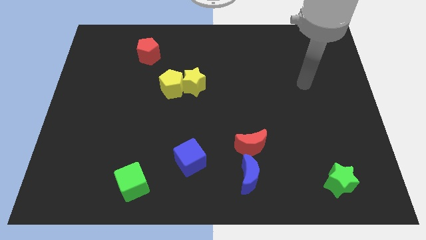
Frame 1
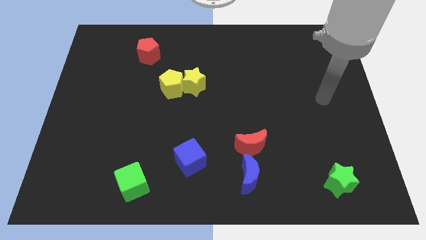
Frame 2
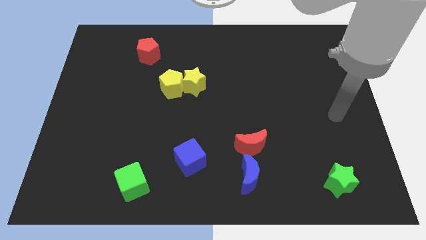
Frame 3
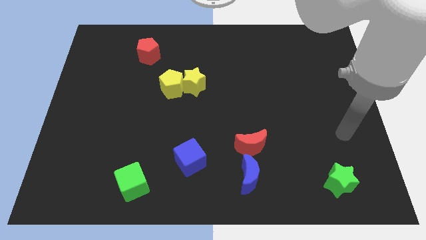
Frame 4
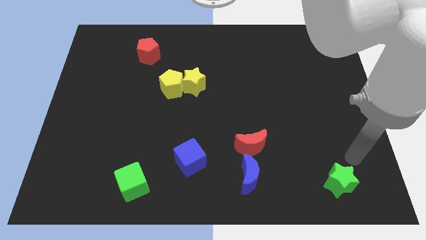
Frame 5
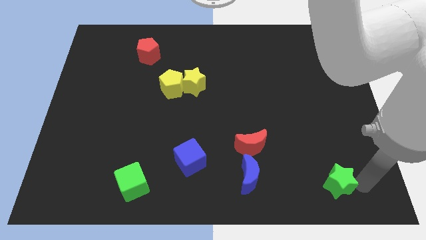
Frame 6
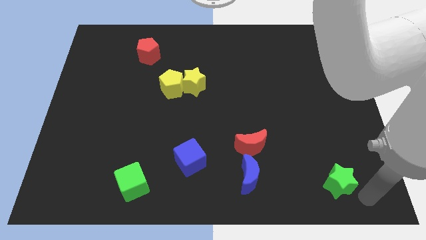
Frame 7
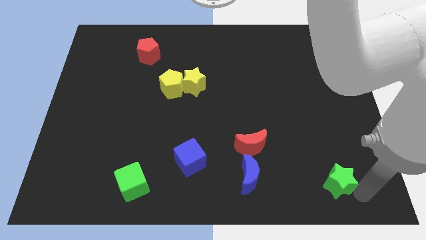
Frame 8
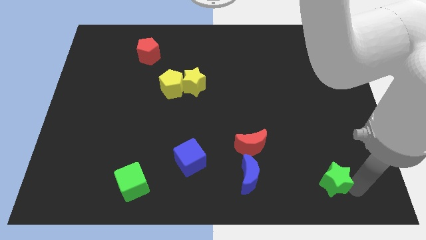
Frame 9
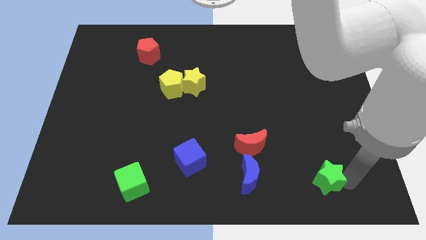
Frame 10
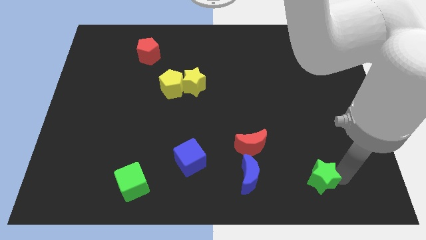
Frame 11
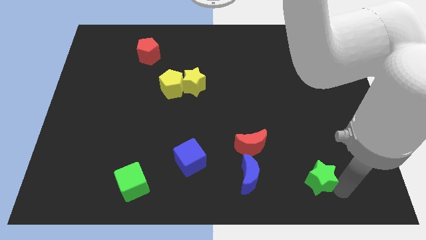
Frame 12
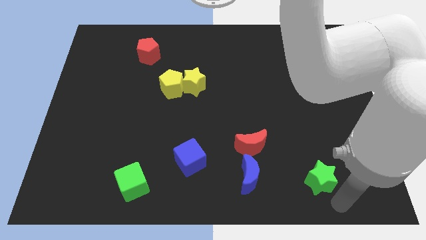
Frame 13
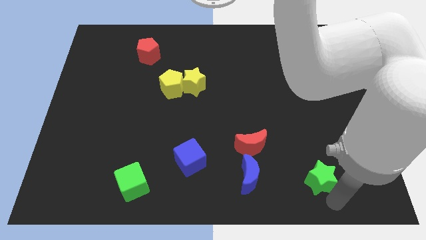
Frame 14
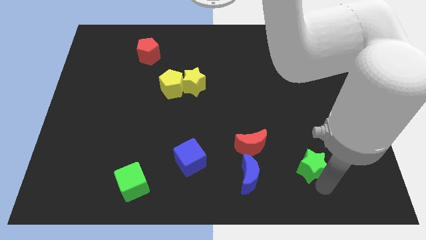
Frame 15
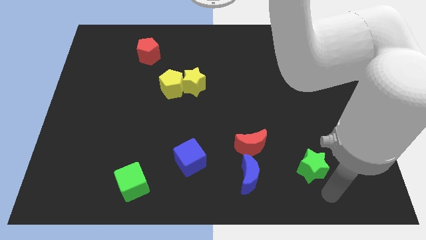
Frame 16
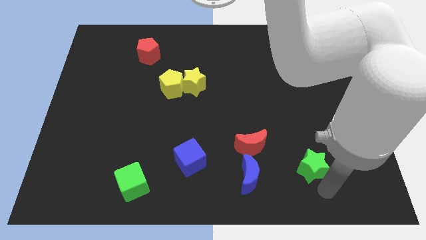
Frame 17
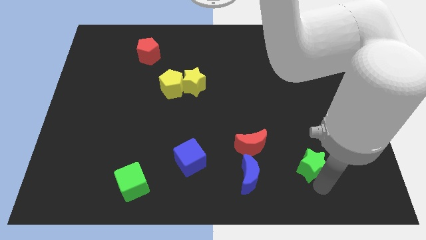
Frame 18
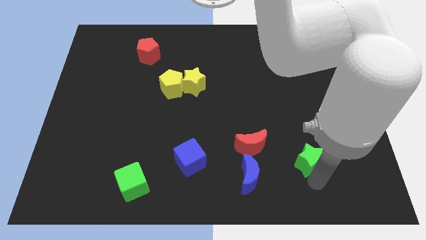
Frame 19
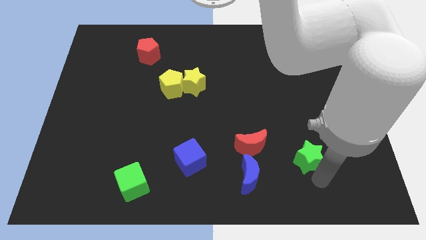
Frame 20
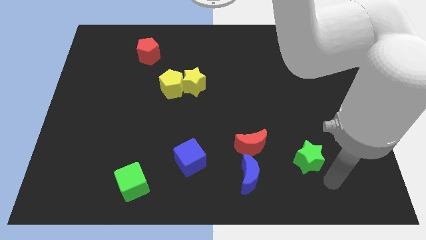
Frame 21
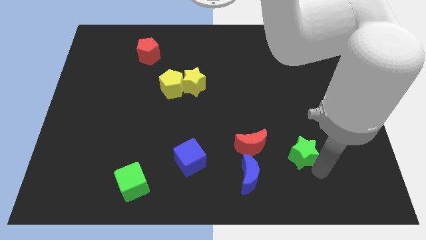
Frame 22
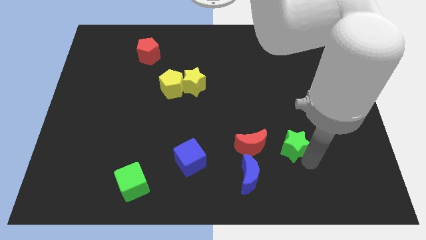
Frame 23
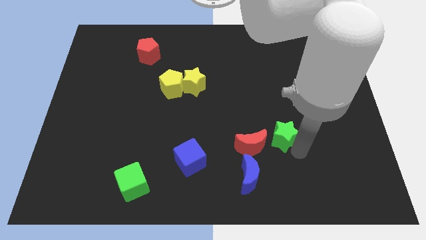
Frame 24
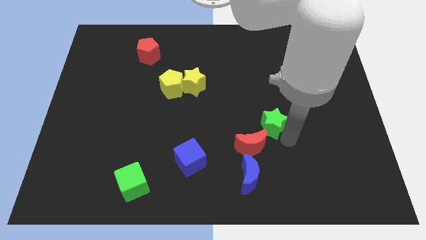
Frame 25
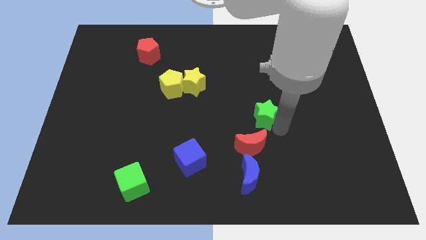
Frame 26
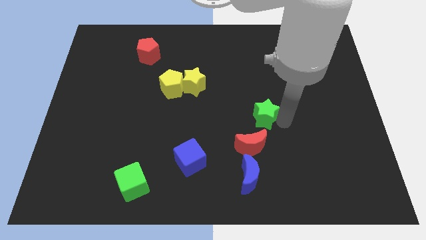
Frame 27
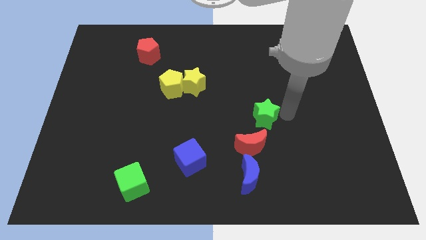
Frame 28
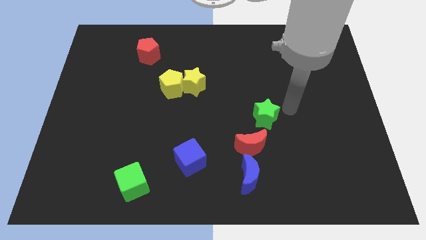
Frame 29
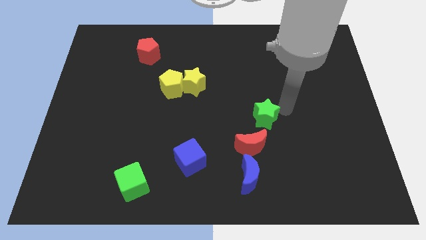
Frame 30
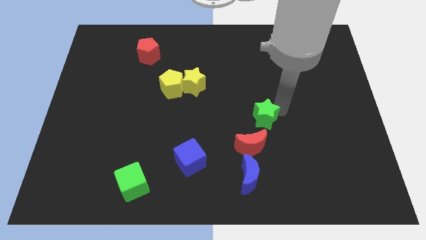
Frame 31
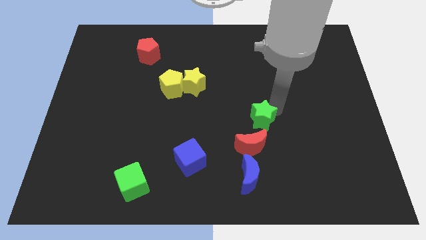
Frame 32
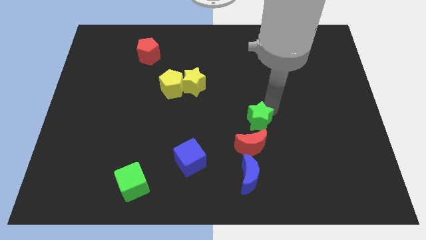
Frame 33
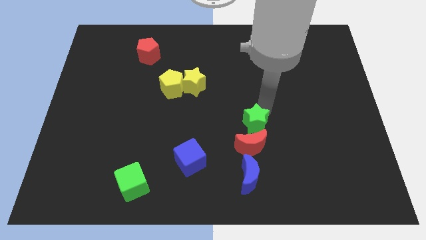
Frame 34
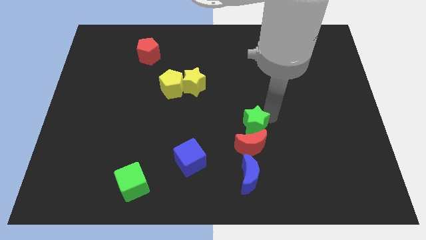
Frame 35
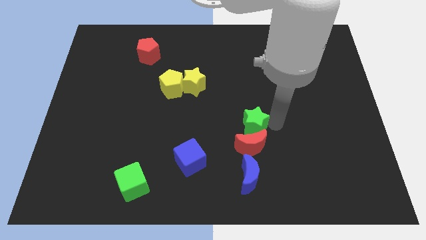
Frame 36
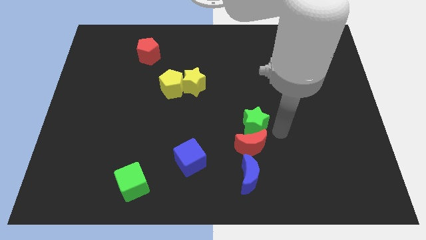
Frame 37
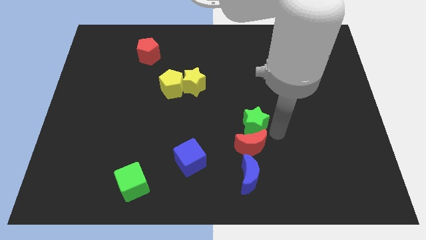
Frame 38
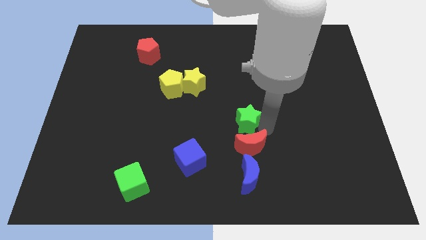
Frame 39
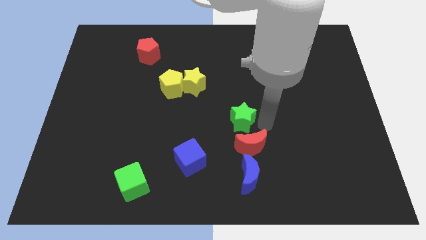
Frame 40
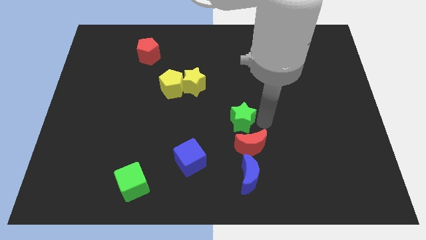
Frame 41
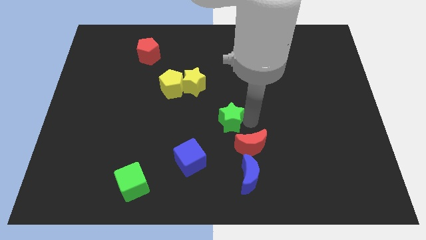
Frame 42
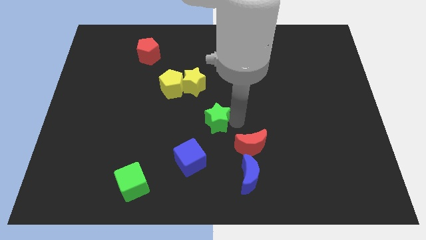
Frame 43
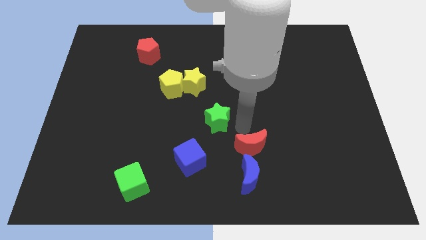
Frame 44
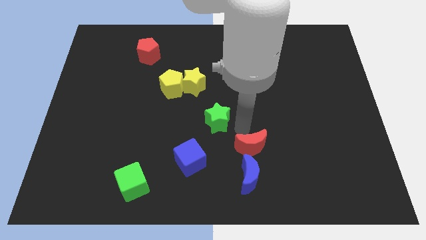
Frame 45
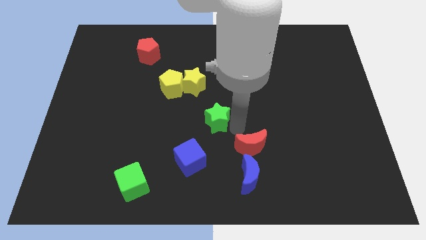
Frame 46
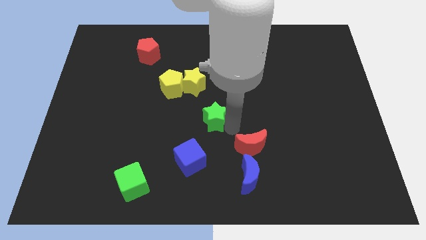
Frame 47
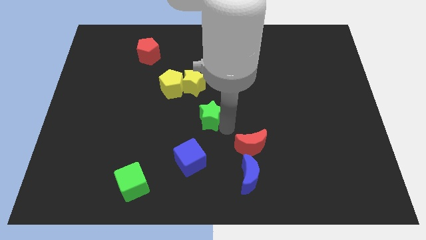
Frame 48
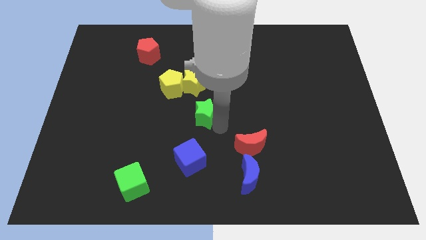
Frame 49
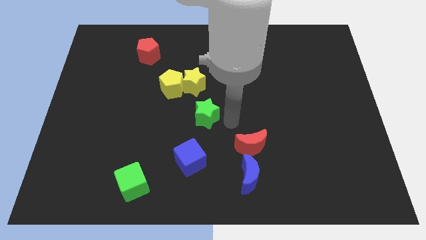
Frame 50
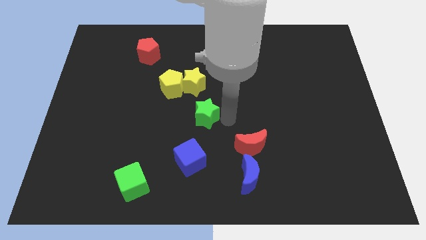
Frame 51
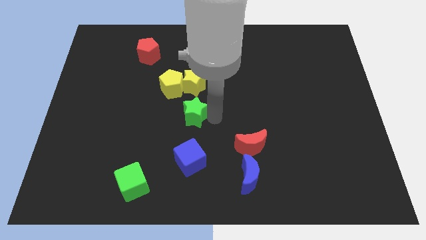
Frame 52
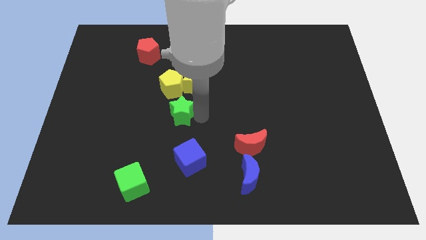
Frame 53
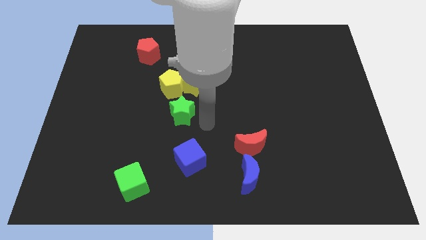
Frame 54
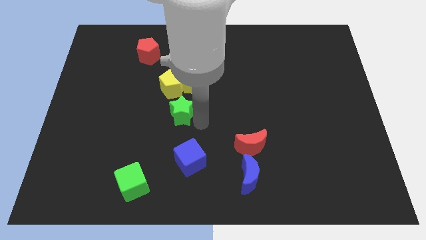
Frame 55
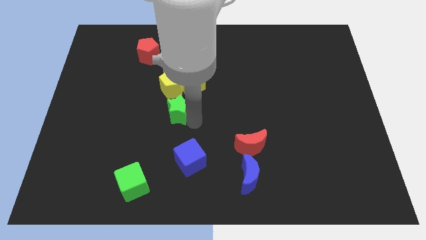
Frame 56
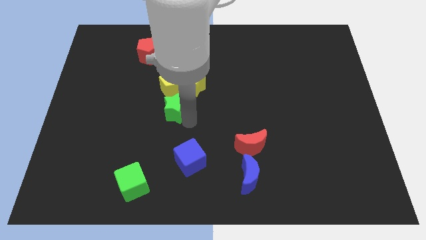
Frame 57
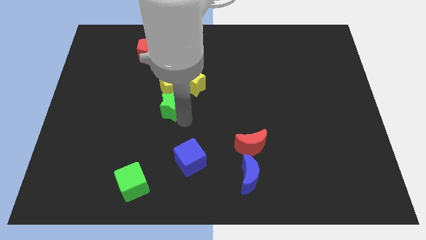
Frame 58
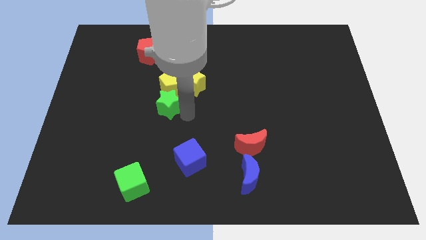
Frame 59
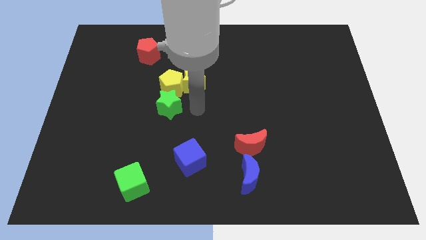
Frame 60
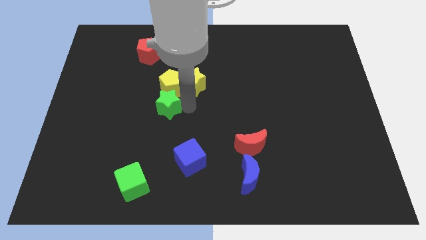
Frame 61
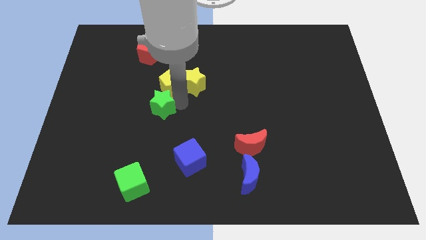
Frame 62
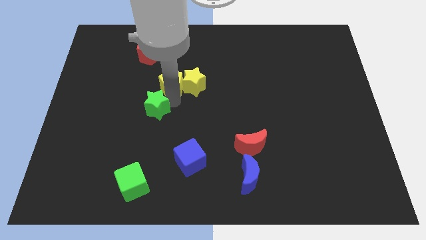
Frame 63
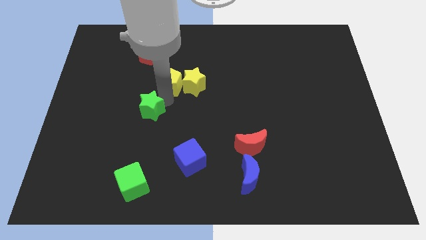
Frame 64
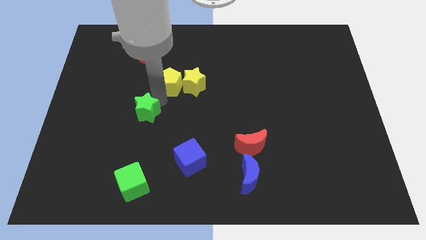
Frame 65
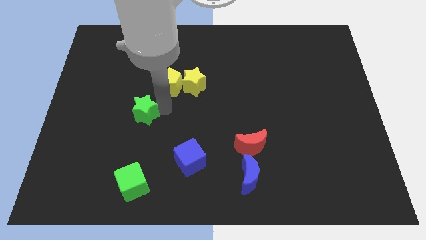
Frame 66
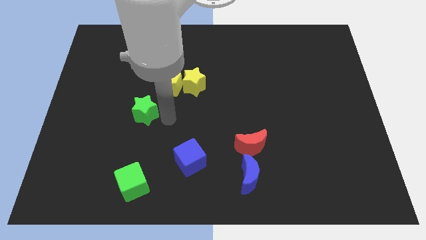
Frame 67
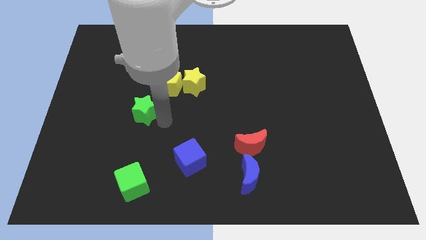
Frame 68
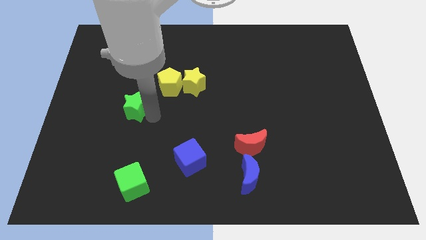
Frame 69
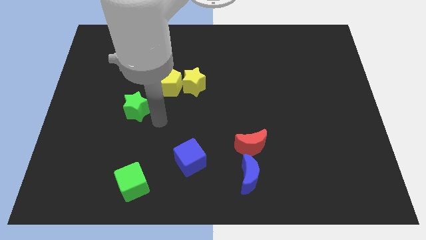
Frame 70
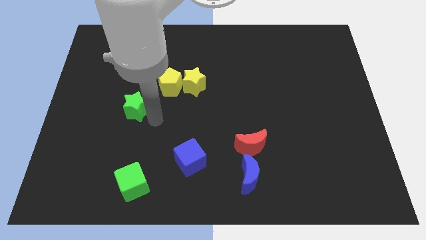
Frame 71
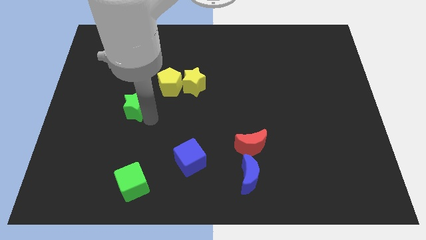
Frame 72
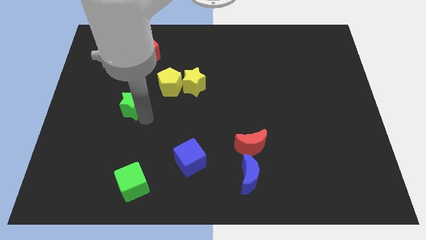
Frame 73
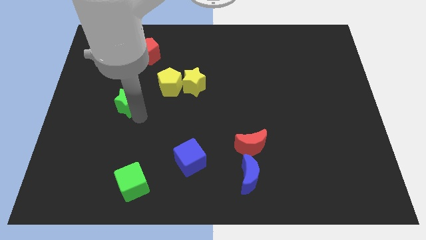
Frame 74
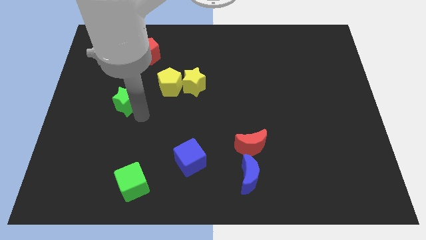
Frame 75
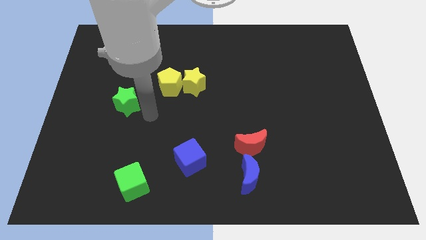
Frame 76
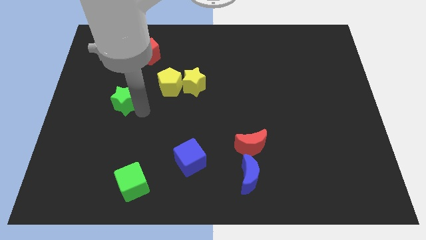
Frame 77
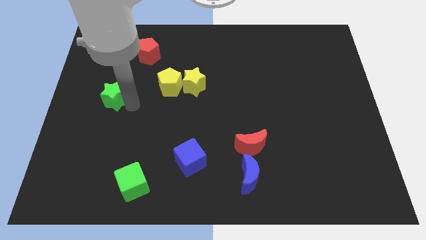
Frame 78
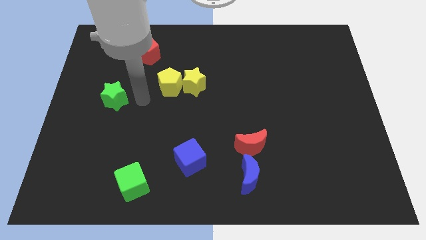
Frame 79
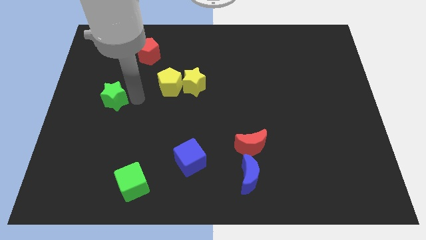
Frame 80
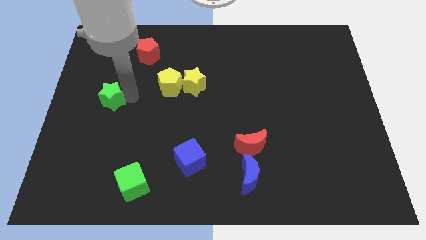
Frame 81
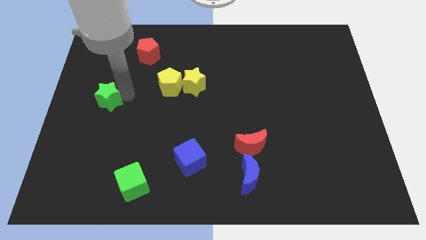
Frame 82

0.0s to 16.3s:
put the green star to the left side
